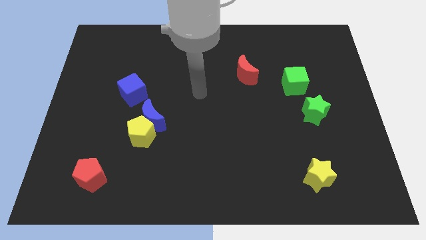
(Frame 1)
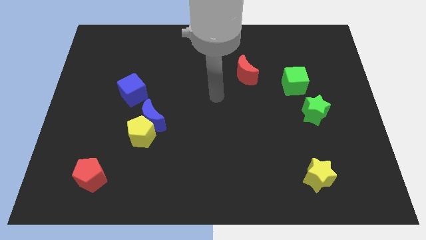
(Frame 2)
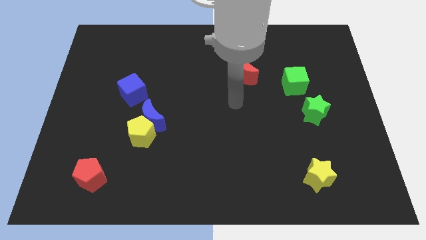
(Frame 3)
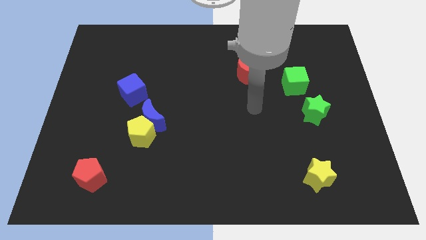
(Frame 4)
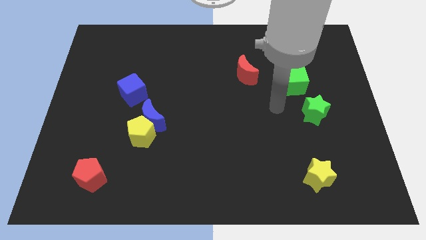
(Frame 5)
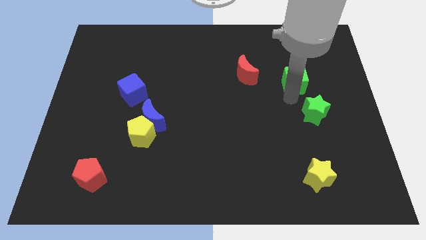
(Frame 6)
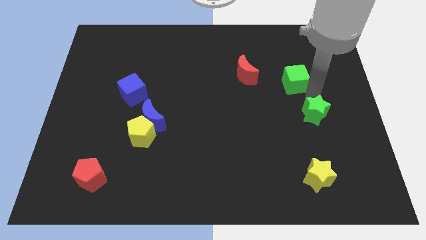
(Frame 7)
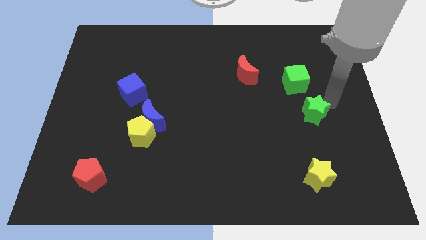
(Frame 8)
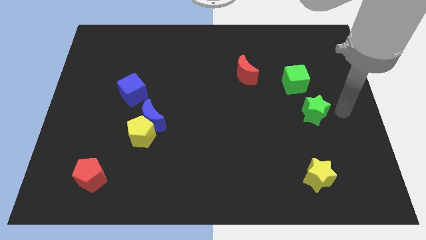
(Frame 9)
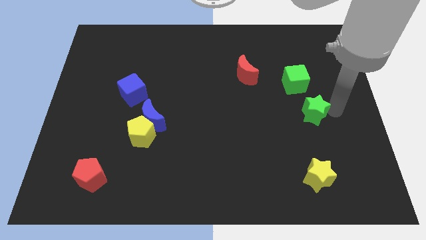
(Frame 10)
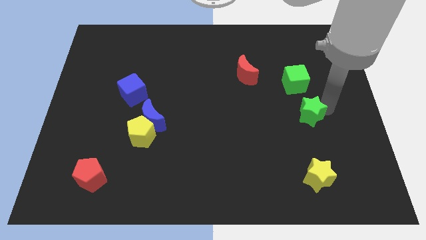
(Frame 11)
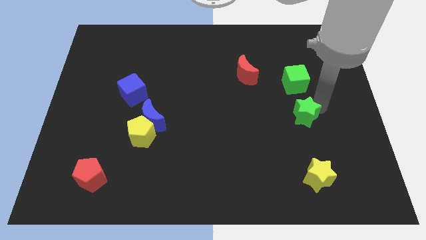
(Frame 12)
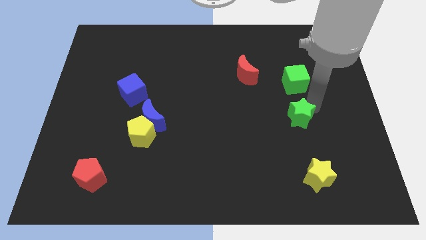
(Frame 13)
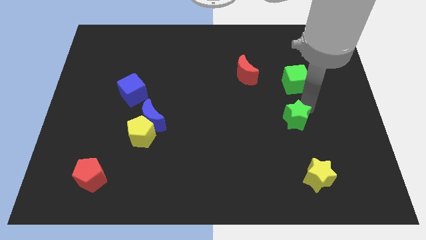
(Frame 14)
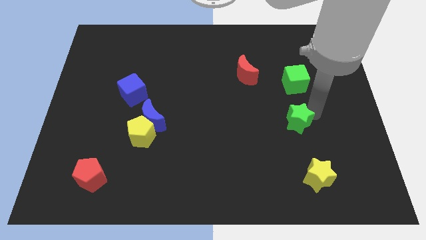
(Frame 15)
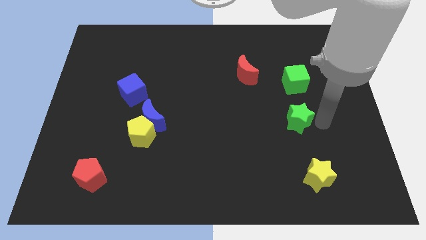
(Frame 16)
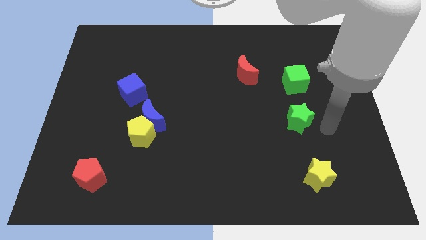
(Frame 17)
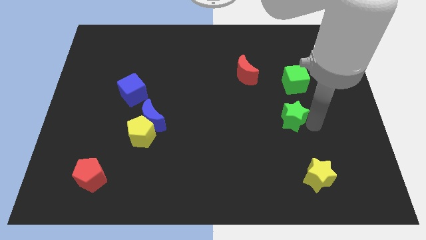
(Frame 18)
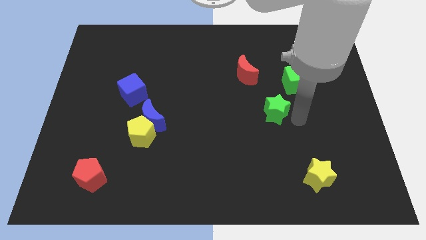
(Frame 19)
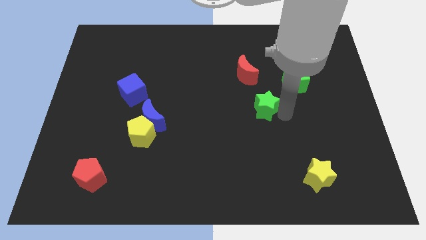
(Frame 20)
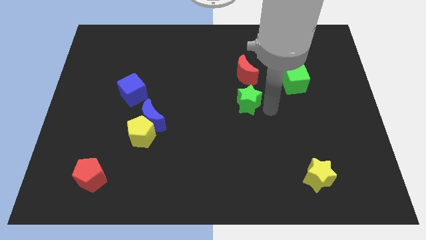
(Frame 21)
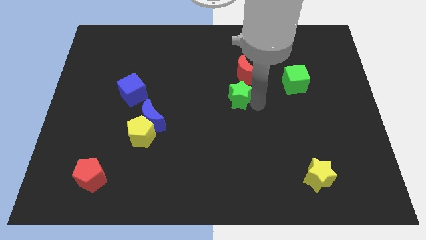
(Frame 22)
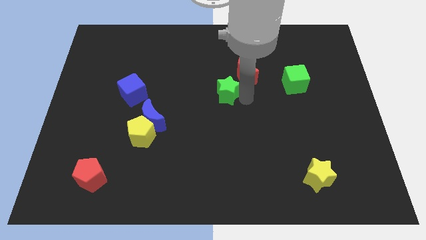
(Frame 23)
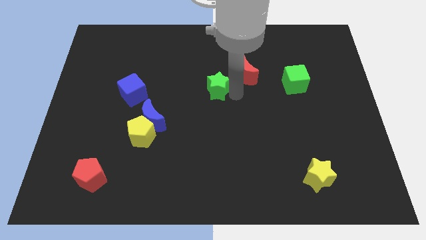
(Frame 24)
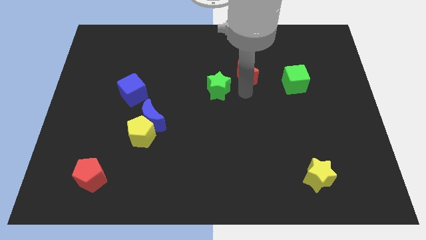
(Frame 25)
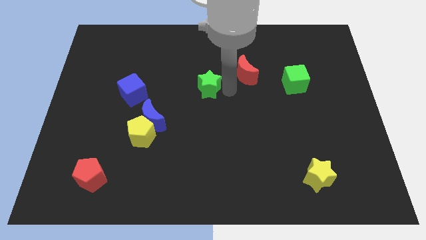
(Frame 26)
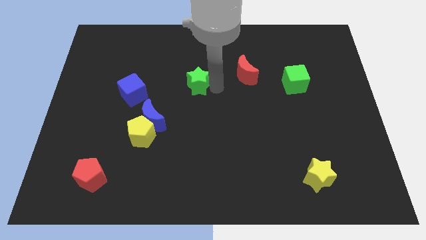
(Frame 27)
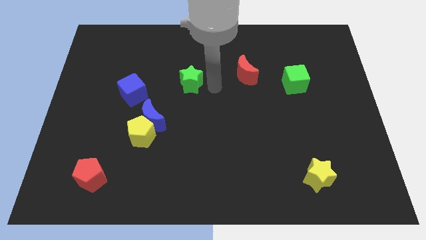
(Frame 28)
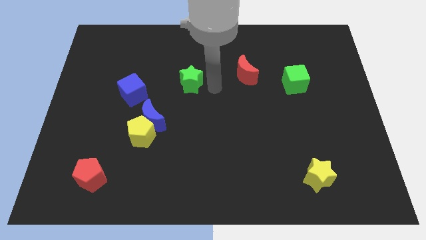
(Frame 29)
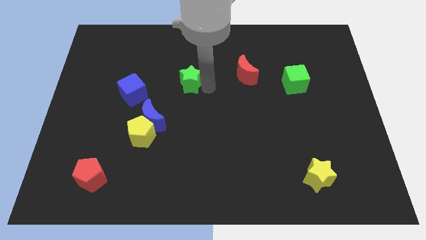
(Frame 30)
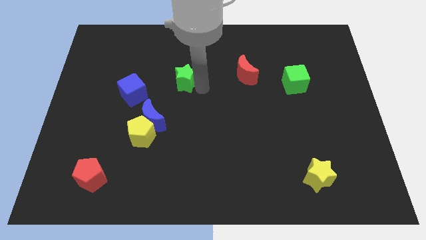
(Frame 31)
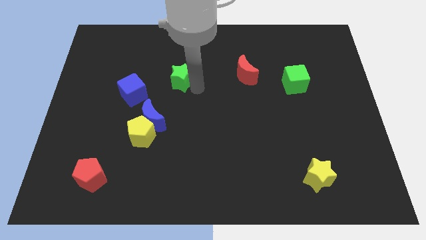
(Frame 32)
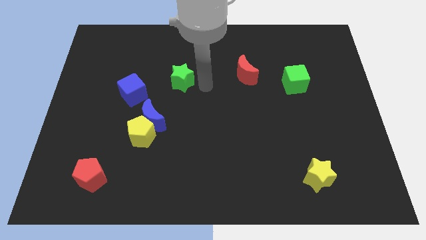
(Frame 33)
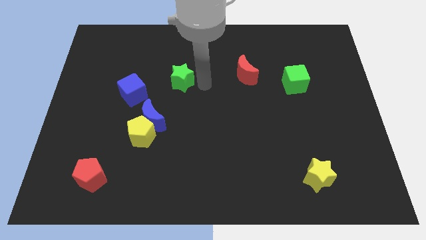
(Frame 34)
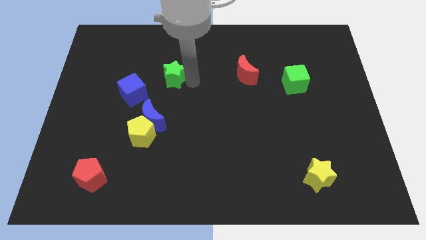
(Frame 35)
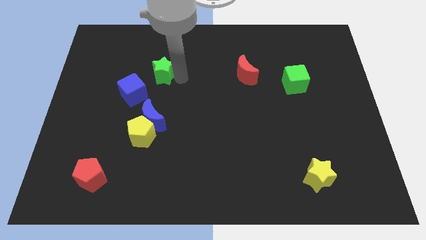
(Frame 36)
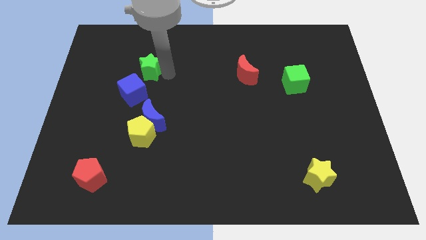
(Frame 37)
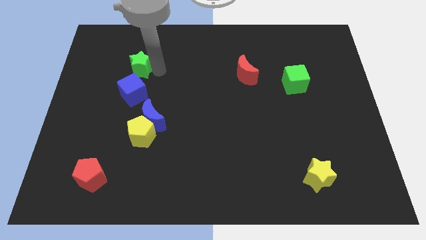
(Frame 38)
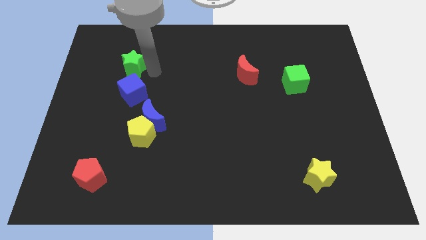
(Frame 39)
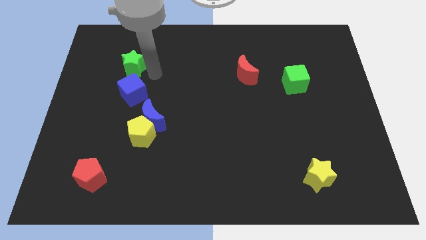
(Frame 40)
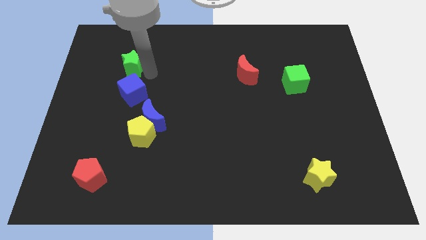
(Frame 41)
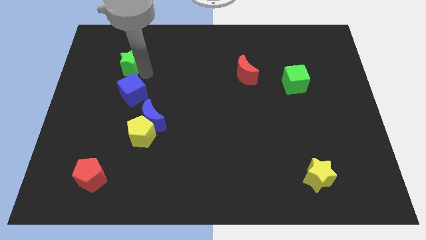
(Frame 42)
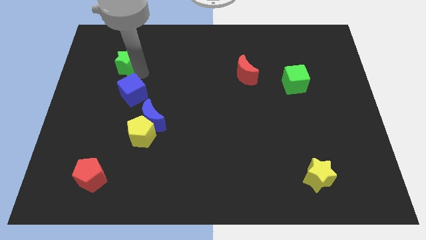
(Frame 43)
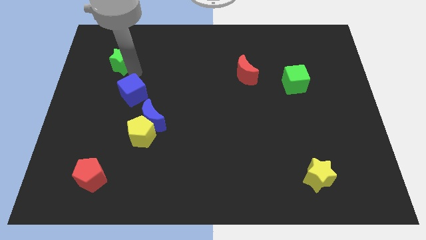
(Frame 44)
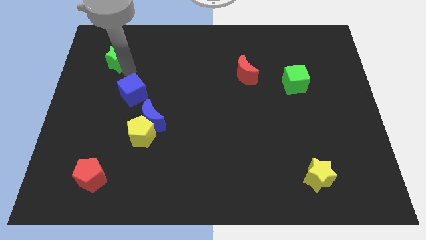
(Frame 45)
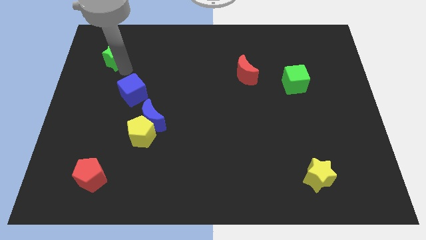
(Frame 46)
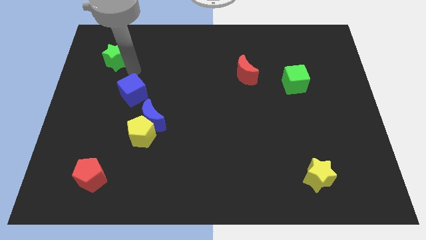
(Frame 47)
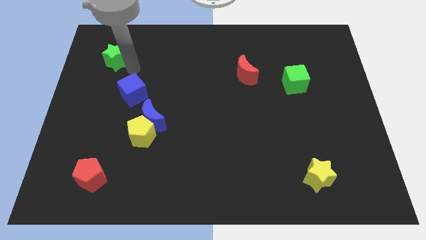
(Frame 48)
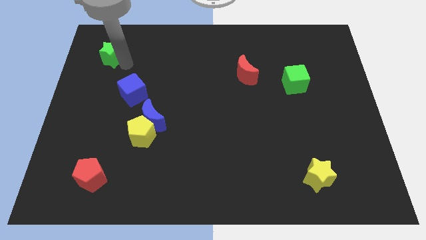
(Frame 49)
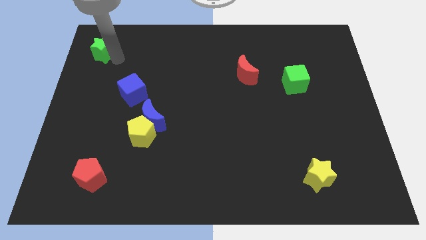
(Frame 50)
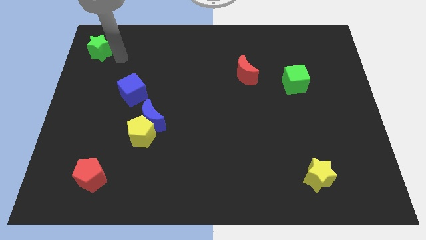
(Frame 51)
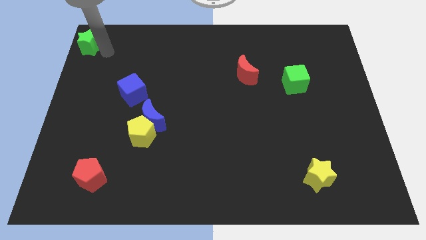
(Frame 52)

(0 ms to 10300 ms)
move the green star to the top left

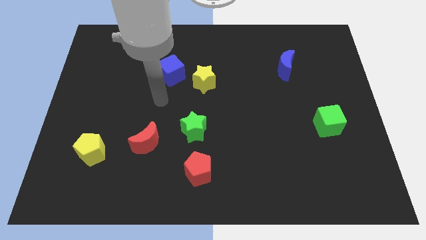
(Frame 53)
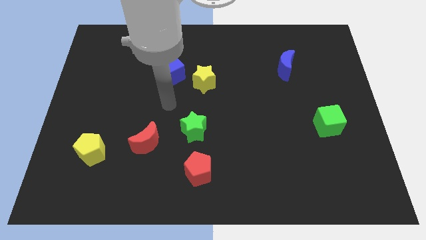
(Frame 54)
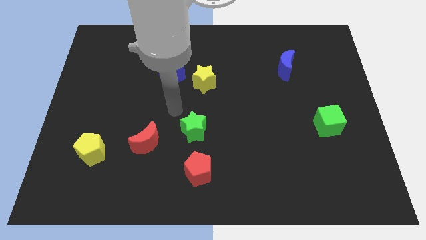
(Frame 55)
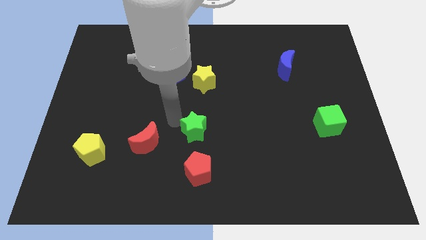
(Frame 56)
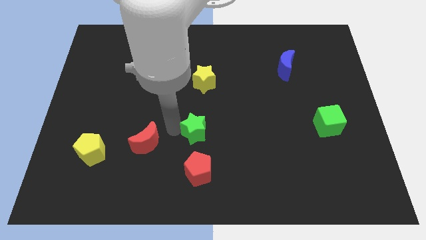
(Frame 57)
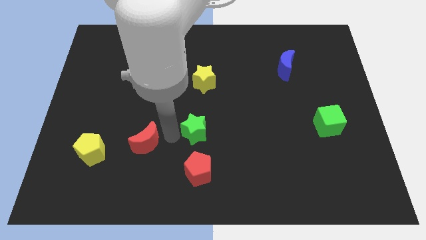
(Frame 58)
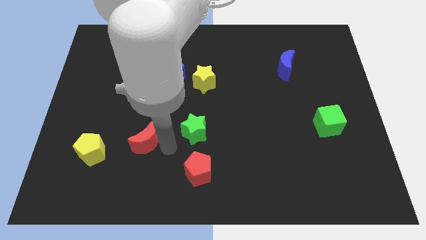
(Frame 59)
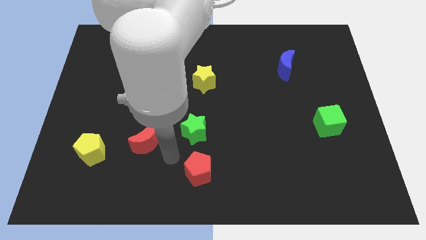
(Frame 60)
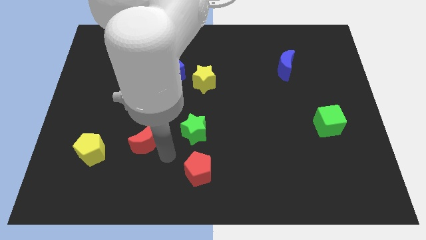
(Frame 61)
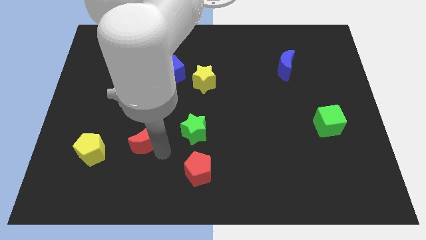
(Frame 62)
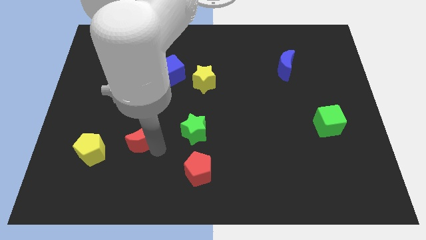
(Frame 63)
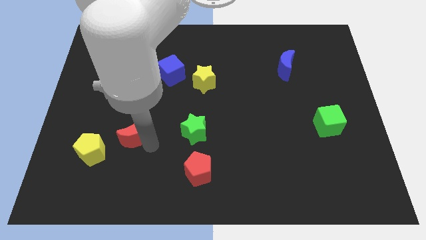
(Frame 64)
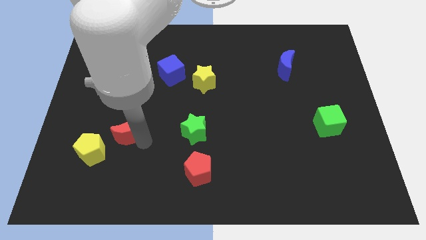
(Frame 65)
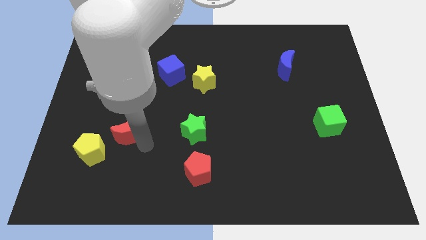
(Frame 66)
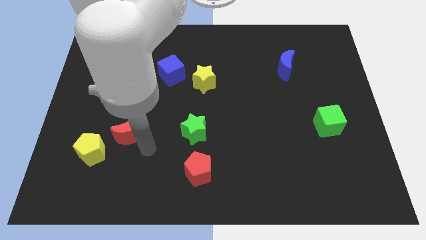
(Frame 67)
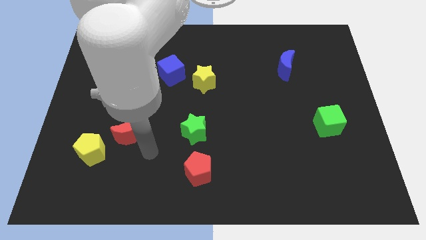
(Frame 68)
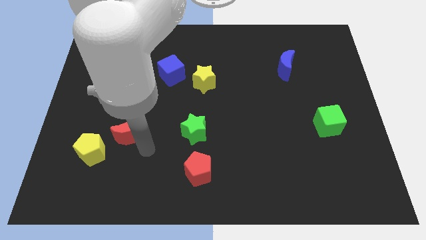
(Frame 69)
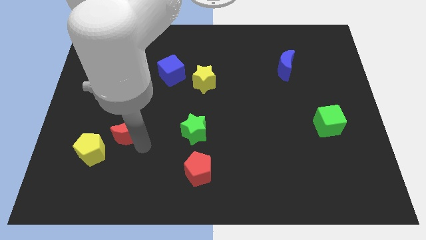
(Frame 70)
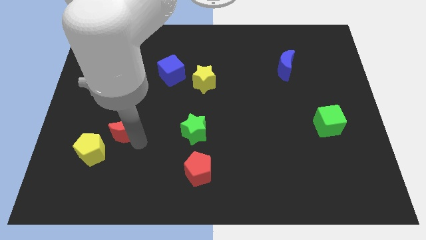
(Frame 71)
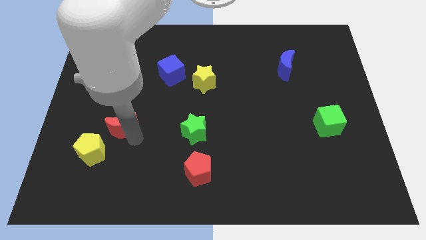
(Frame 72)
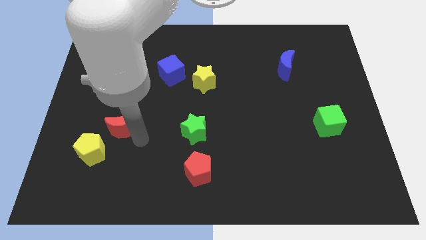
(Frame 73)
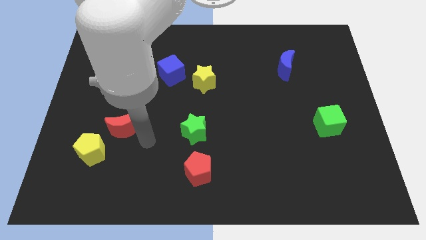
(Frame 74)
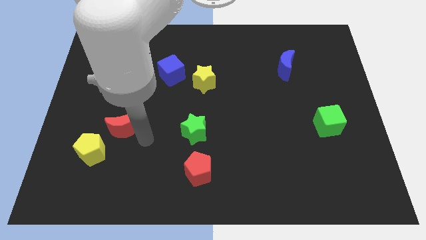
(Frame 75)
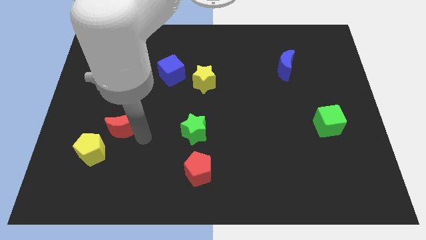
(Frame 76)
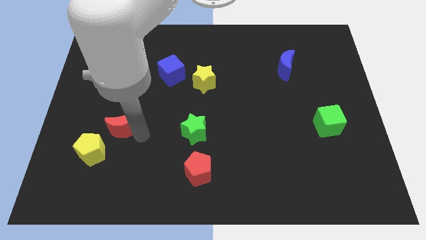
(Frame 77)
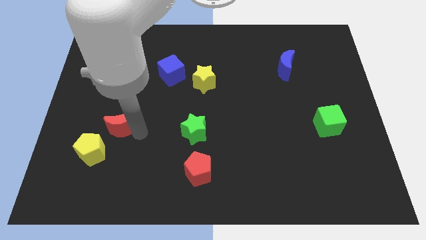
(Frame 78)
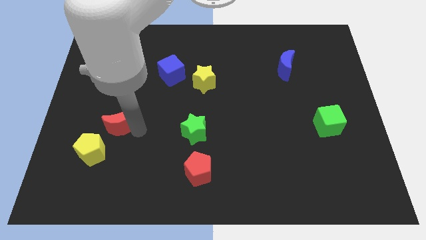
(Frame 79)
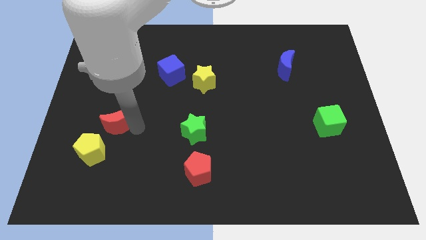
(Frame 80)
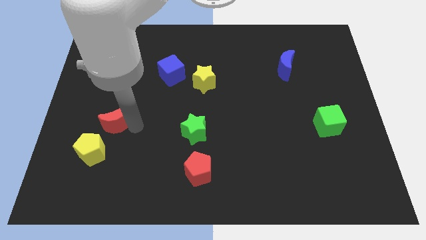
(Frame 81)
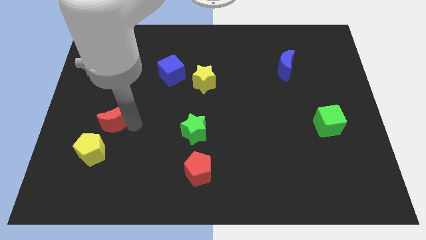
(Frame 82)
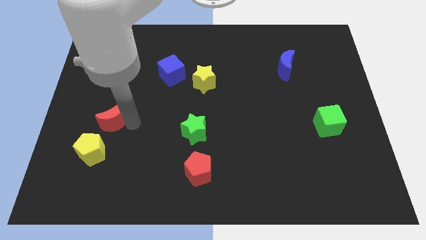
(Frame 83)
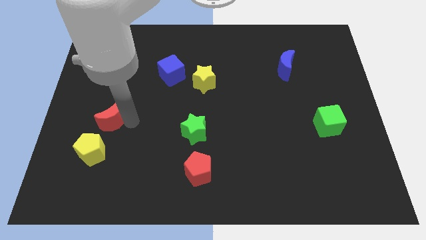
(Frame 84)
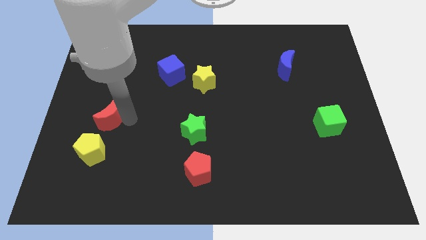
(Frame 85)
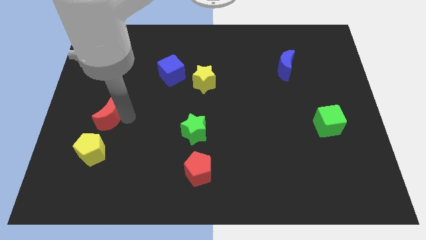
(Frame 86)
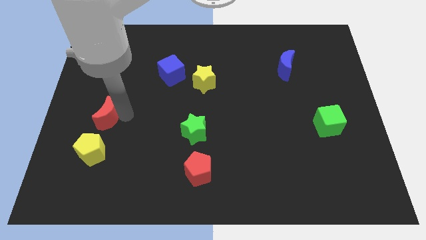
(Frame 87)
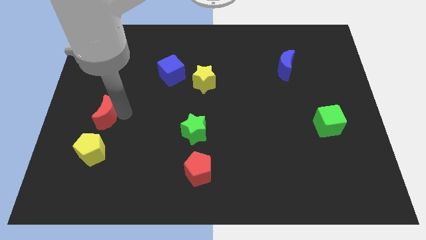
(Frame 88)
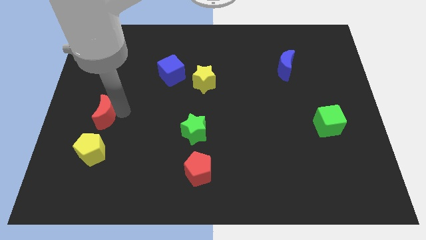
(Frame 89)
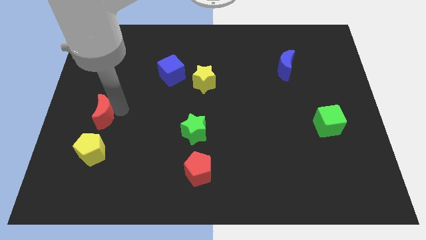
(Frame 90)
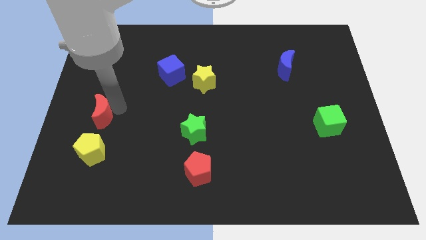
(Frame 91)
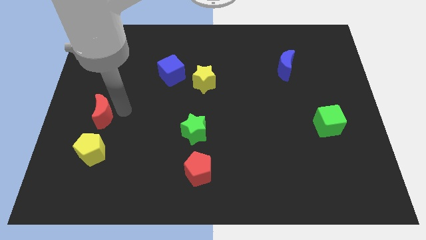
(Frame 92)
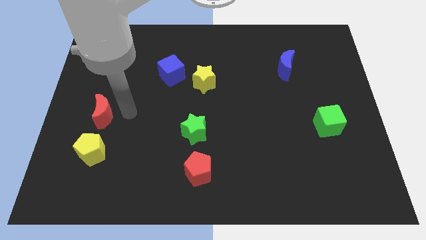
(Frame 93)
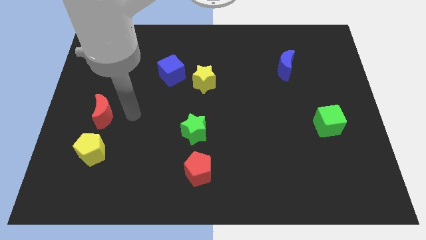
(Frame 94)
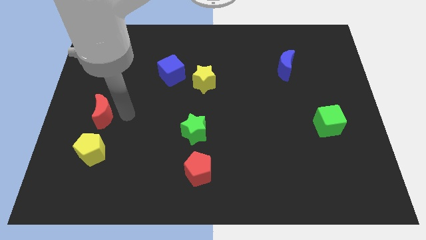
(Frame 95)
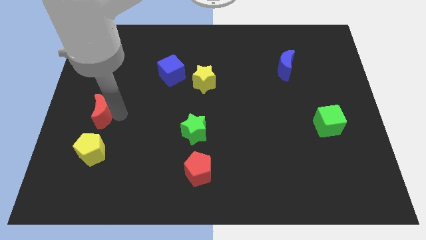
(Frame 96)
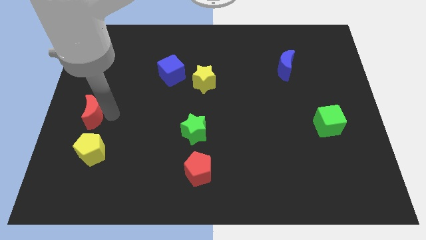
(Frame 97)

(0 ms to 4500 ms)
slide the red moon to the left side
